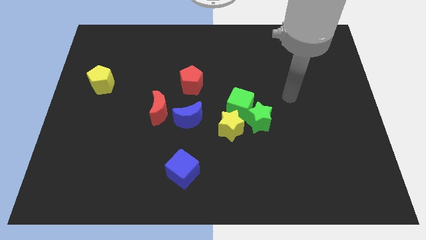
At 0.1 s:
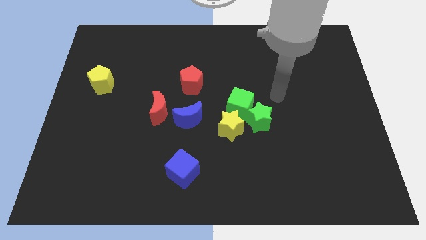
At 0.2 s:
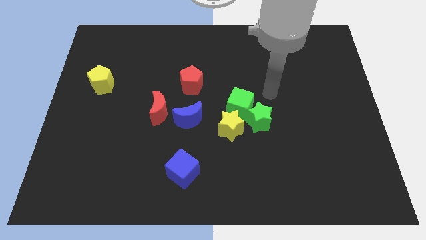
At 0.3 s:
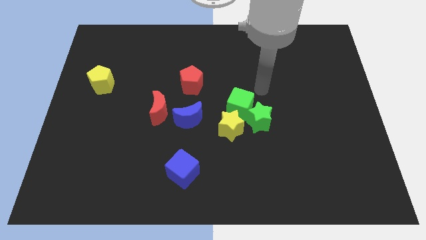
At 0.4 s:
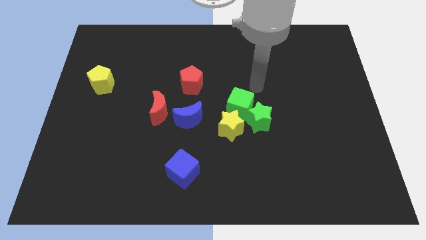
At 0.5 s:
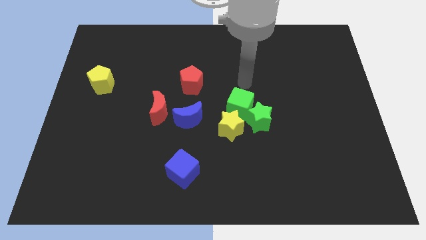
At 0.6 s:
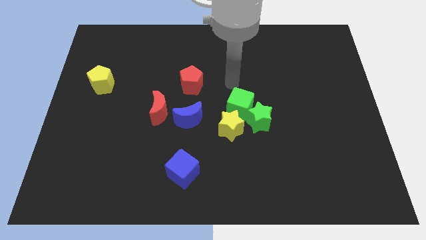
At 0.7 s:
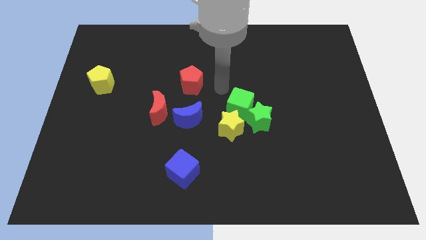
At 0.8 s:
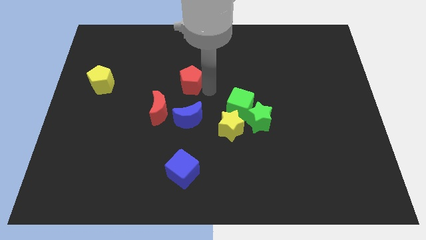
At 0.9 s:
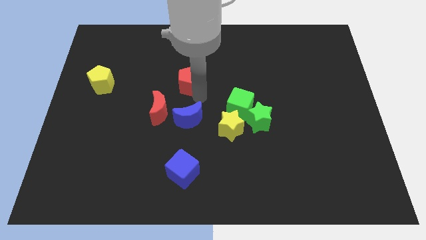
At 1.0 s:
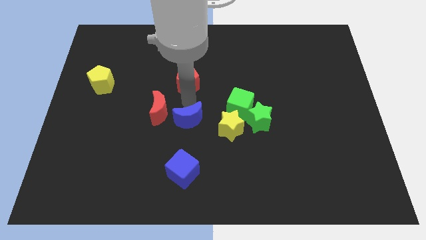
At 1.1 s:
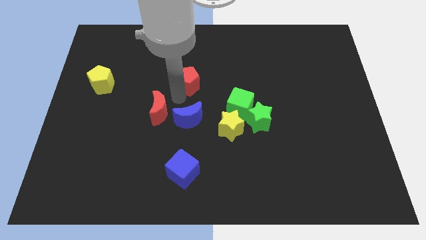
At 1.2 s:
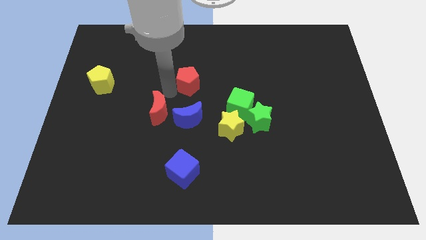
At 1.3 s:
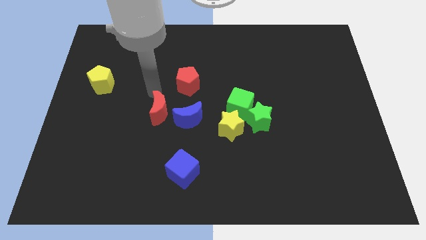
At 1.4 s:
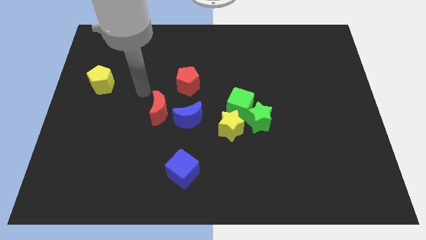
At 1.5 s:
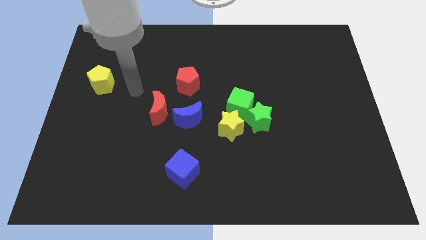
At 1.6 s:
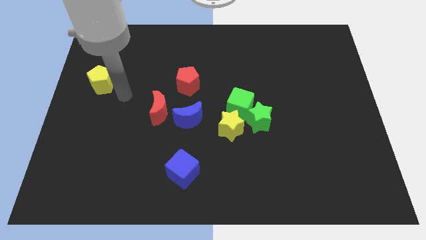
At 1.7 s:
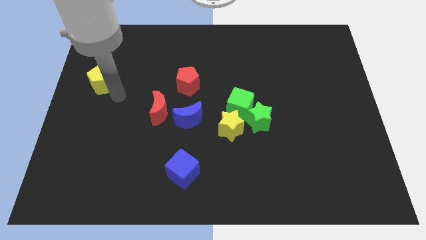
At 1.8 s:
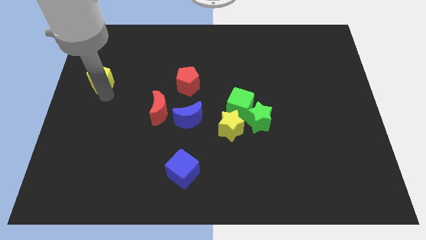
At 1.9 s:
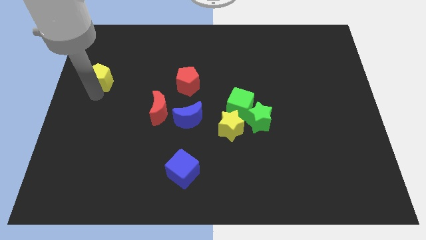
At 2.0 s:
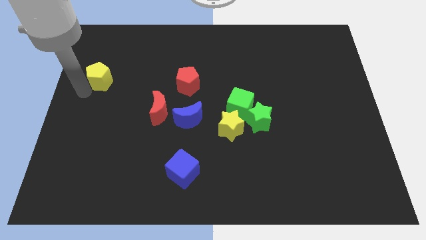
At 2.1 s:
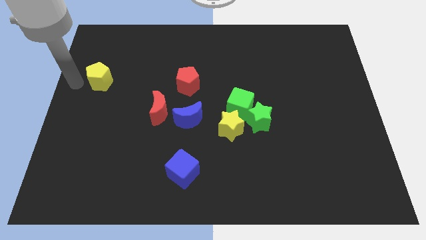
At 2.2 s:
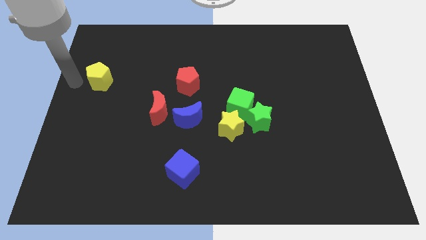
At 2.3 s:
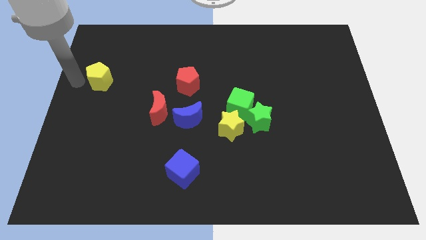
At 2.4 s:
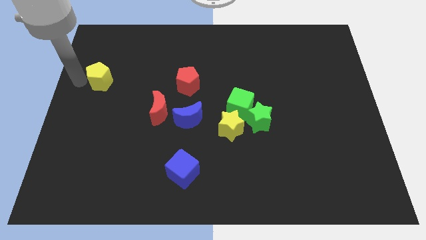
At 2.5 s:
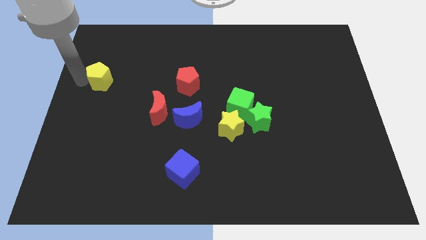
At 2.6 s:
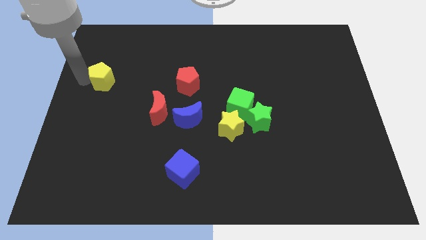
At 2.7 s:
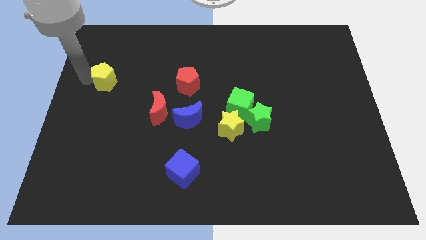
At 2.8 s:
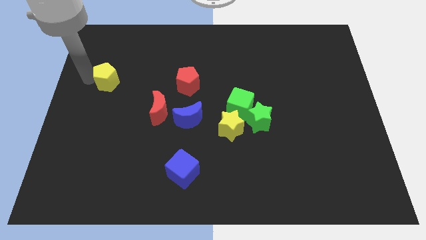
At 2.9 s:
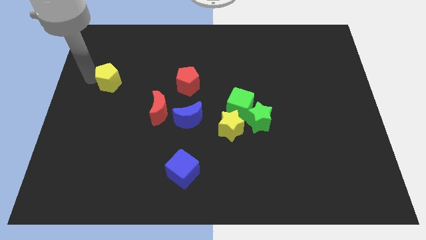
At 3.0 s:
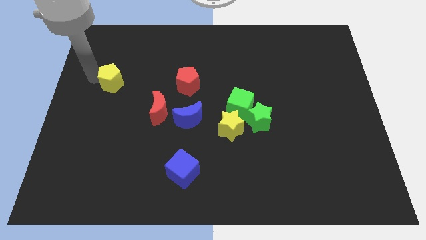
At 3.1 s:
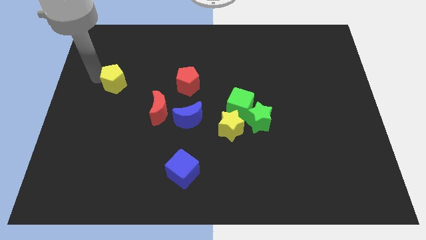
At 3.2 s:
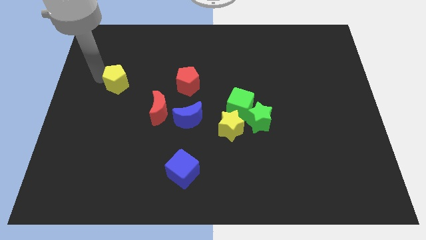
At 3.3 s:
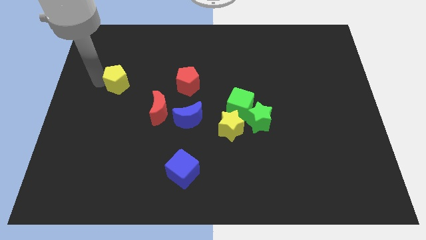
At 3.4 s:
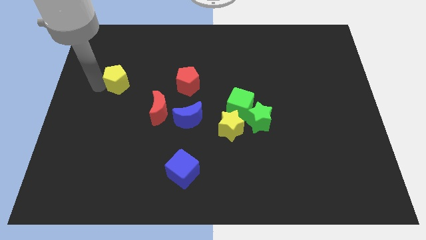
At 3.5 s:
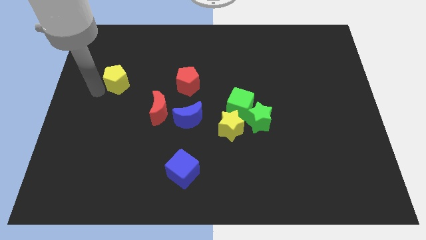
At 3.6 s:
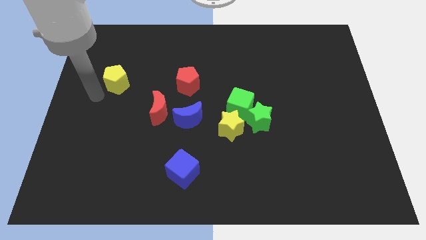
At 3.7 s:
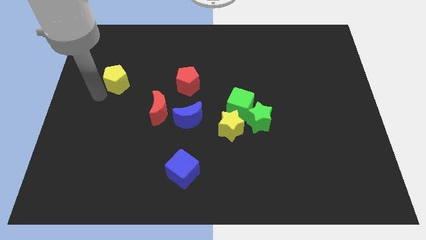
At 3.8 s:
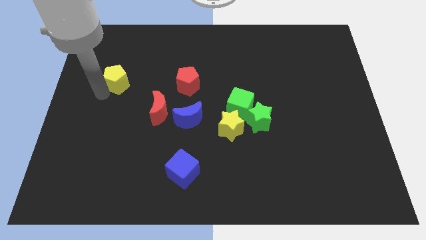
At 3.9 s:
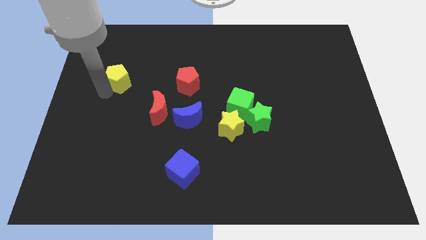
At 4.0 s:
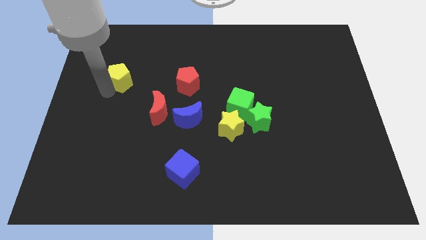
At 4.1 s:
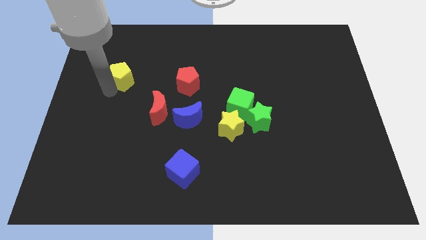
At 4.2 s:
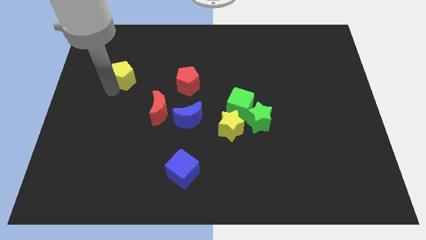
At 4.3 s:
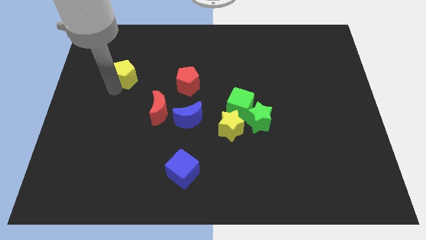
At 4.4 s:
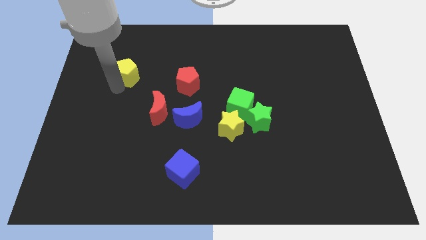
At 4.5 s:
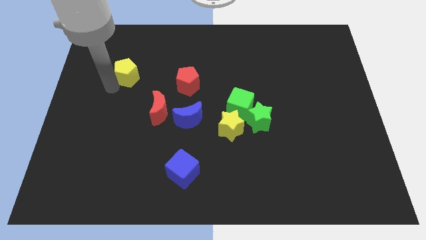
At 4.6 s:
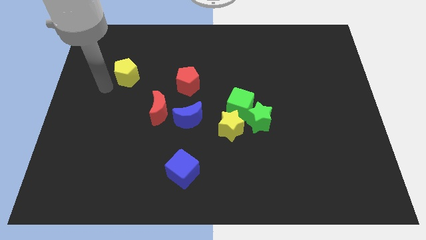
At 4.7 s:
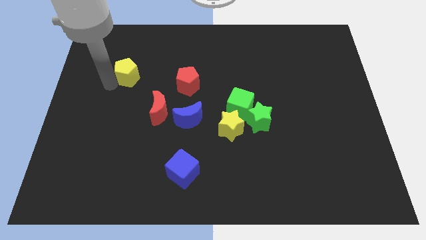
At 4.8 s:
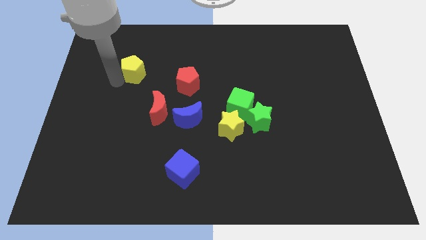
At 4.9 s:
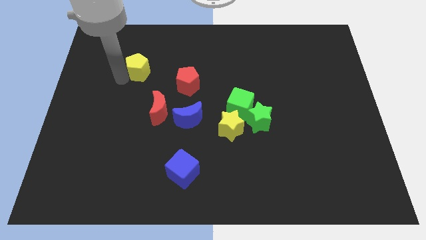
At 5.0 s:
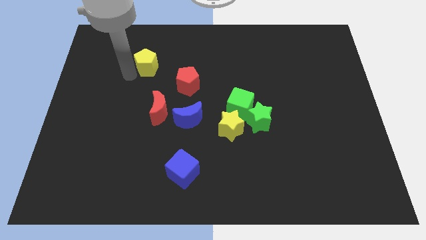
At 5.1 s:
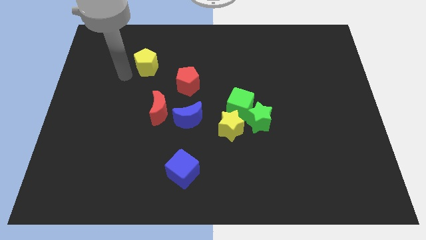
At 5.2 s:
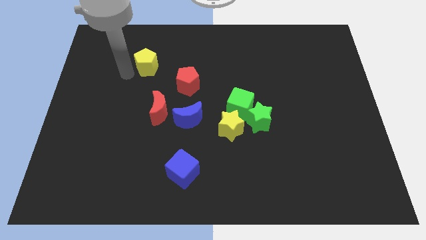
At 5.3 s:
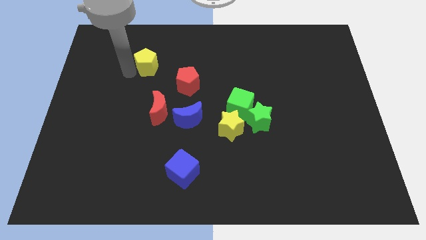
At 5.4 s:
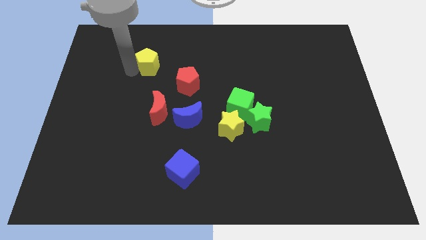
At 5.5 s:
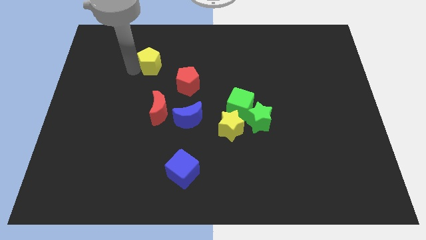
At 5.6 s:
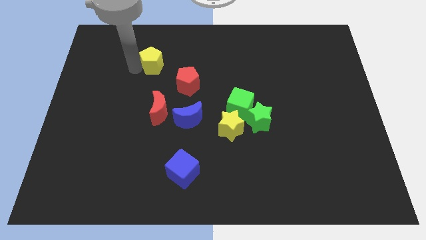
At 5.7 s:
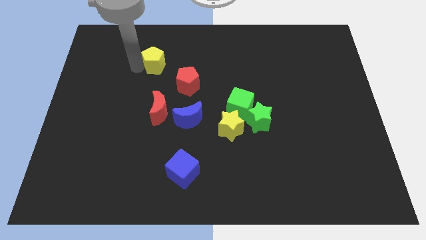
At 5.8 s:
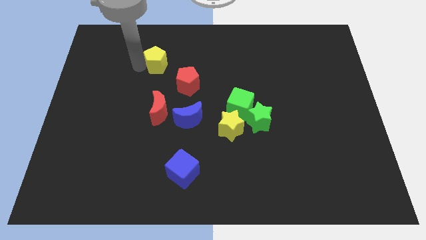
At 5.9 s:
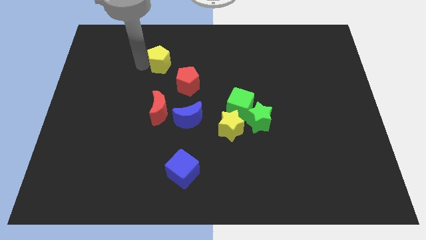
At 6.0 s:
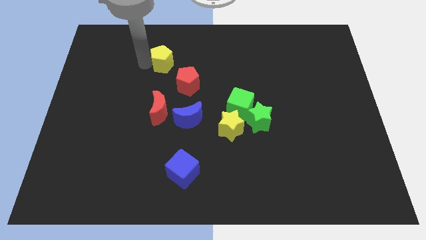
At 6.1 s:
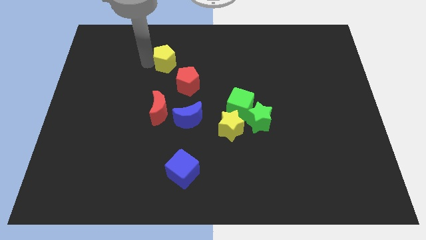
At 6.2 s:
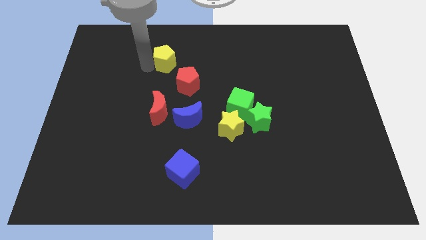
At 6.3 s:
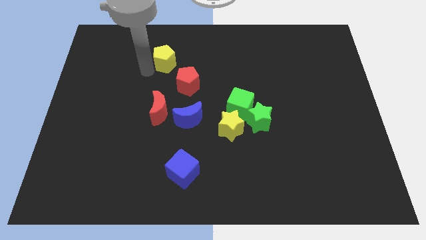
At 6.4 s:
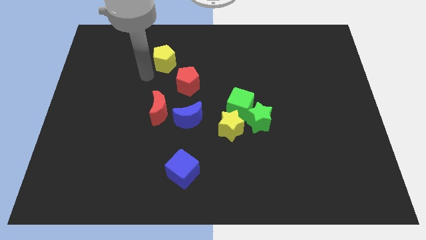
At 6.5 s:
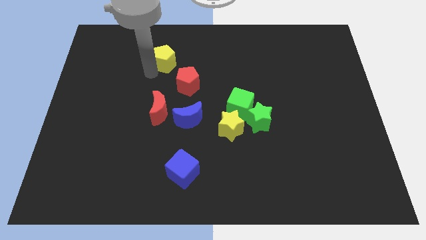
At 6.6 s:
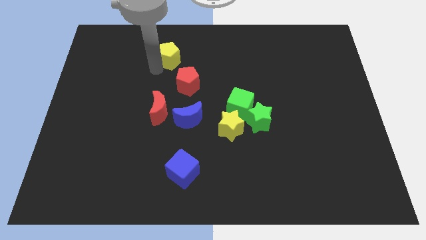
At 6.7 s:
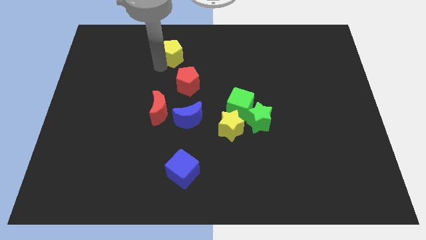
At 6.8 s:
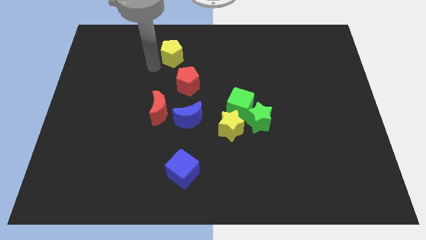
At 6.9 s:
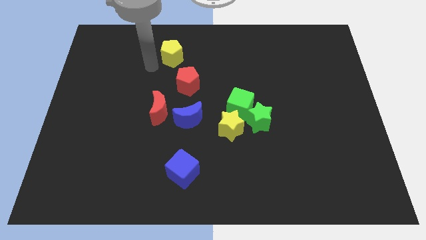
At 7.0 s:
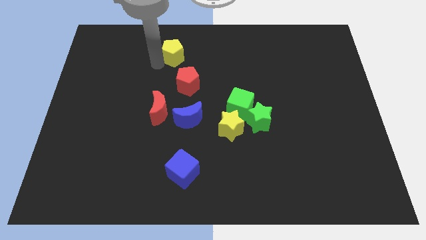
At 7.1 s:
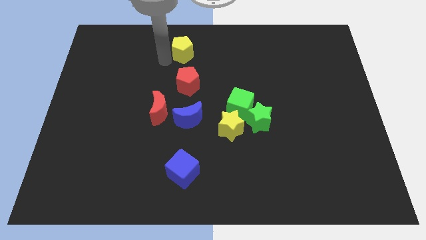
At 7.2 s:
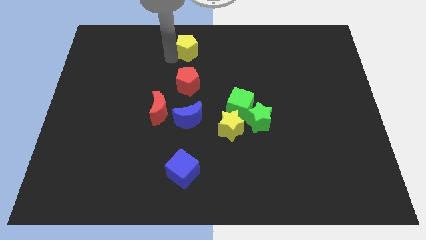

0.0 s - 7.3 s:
move the yellow pentagon to the top
